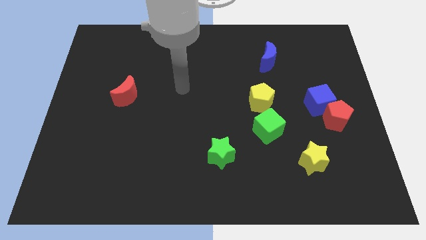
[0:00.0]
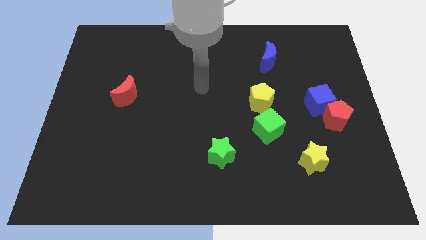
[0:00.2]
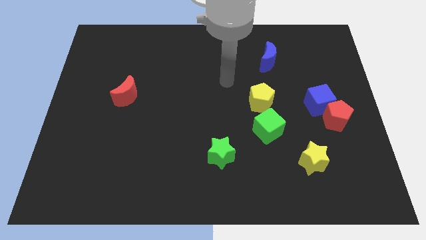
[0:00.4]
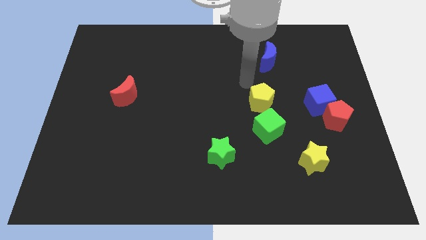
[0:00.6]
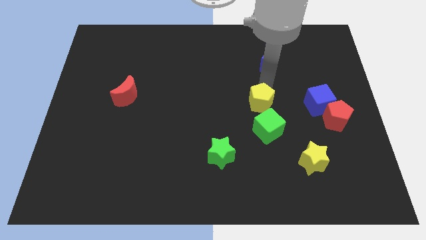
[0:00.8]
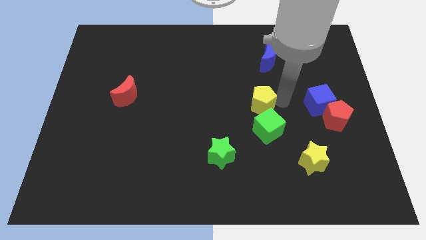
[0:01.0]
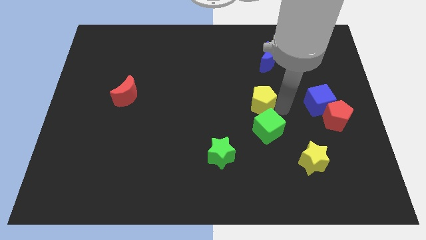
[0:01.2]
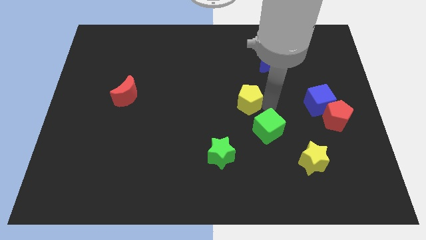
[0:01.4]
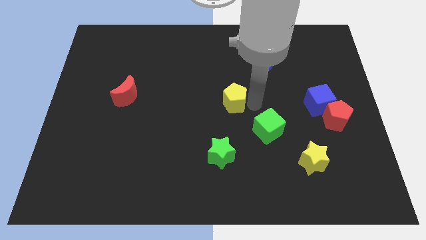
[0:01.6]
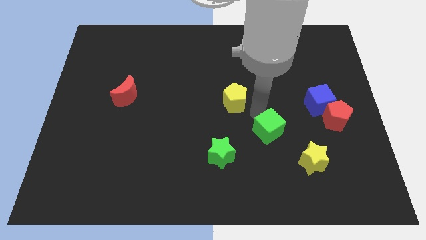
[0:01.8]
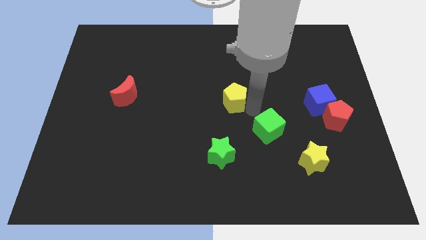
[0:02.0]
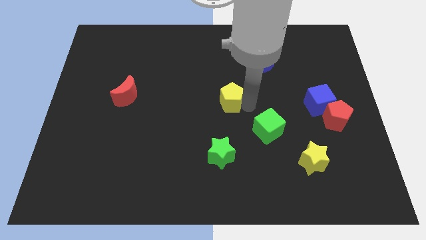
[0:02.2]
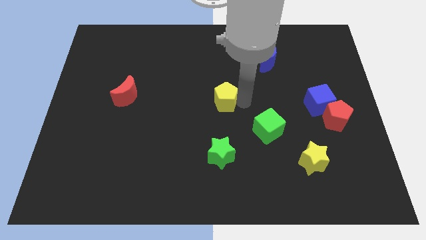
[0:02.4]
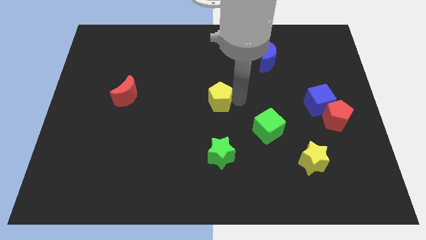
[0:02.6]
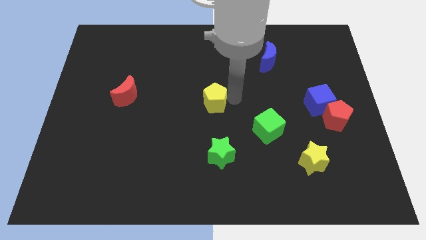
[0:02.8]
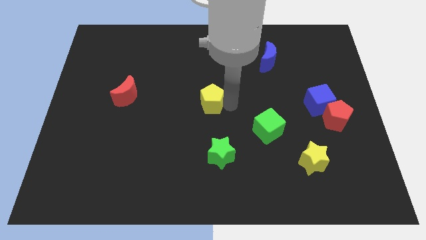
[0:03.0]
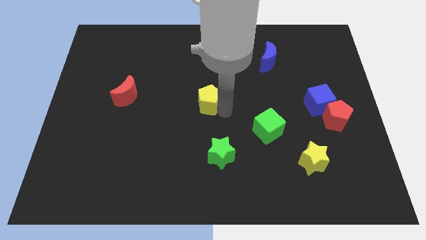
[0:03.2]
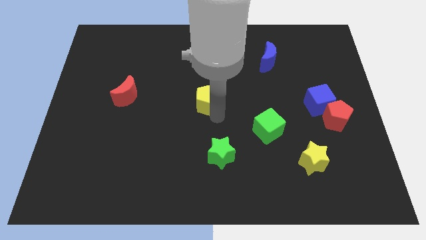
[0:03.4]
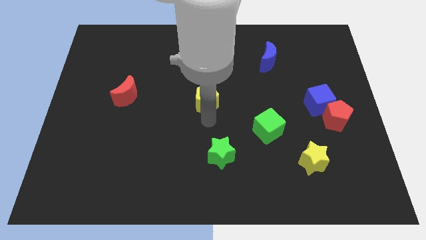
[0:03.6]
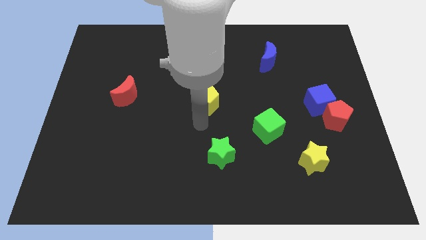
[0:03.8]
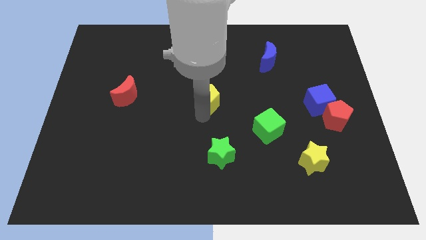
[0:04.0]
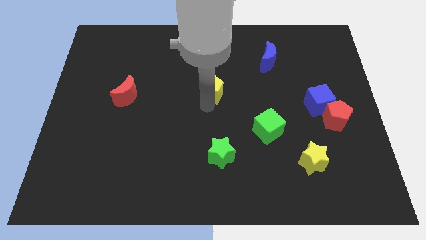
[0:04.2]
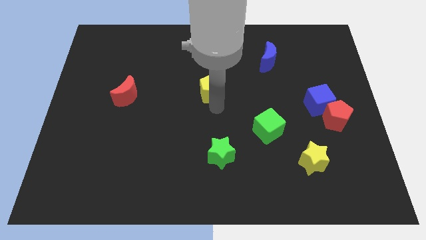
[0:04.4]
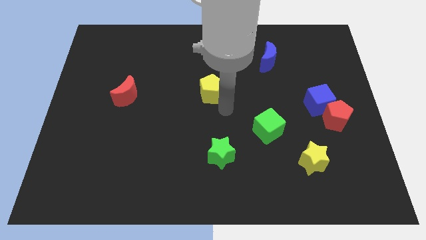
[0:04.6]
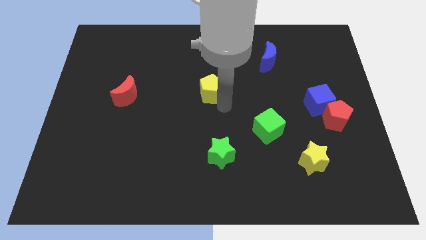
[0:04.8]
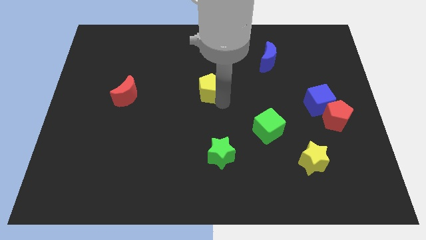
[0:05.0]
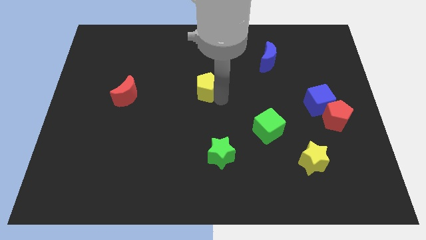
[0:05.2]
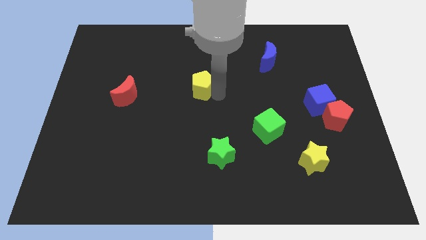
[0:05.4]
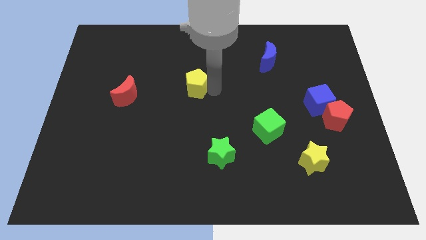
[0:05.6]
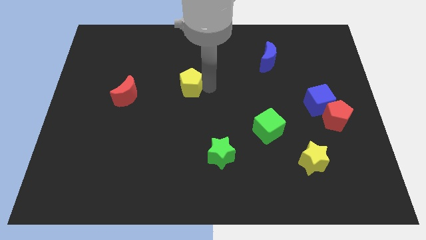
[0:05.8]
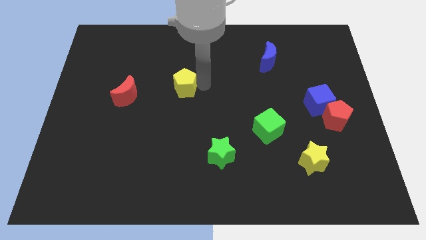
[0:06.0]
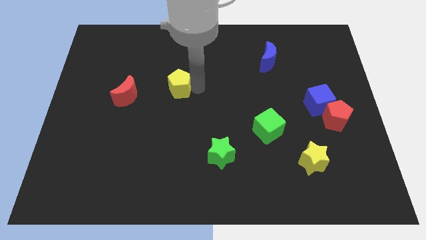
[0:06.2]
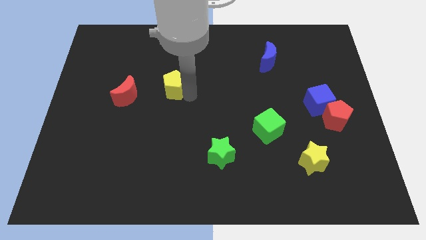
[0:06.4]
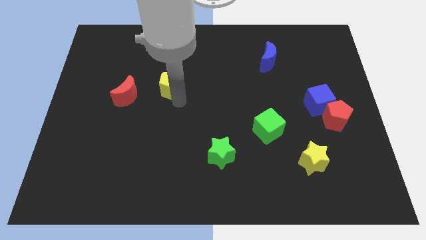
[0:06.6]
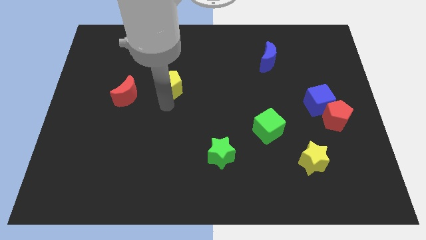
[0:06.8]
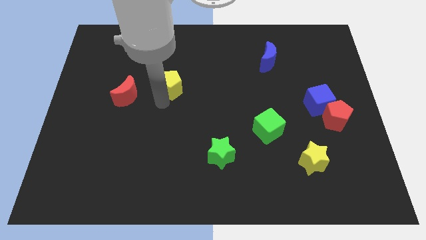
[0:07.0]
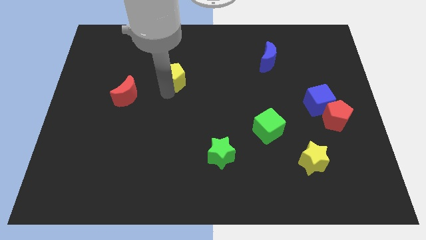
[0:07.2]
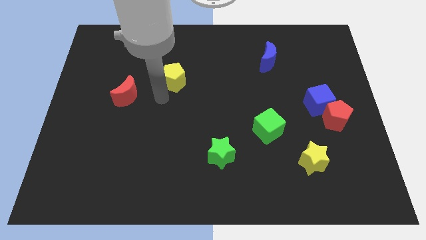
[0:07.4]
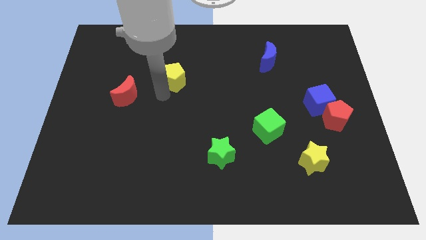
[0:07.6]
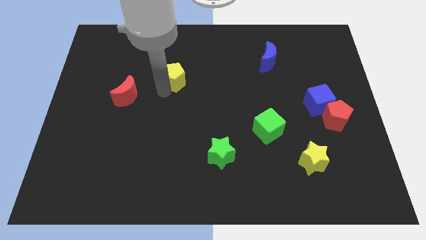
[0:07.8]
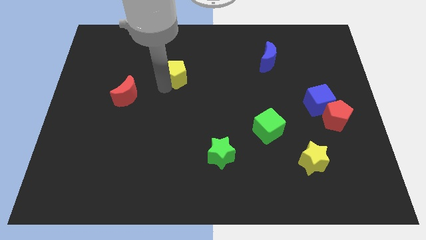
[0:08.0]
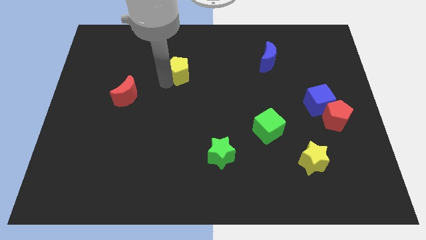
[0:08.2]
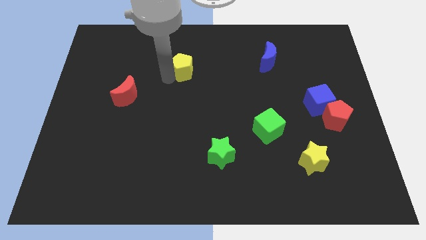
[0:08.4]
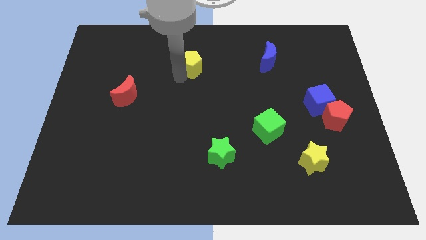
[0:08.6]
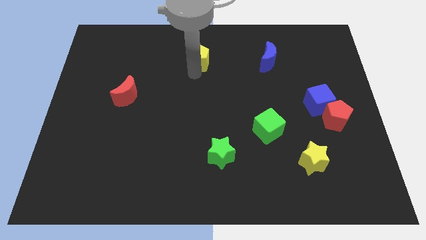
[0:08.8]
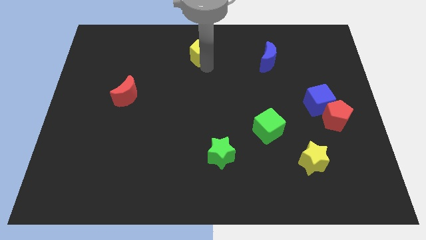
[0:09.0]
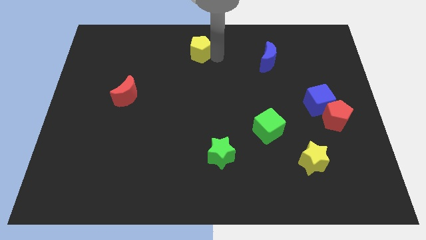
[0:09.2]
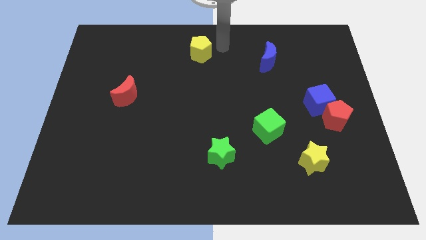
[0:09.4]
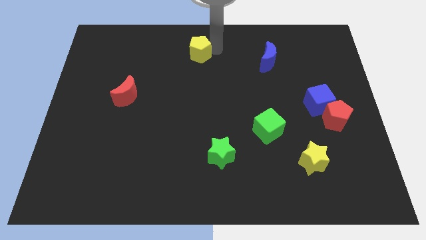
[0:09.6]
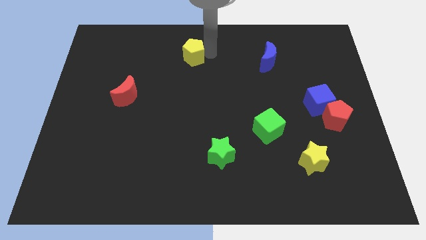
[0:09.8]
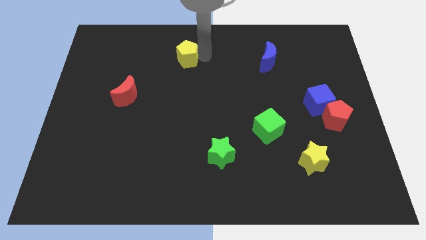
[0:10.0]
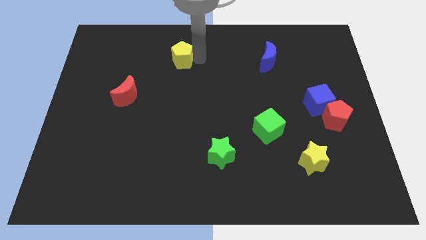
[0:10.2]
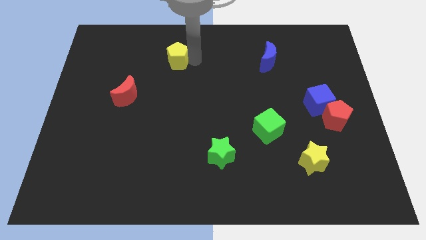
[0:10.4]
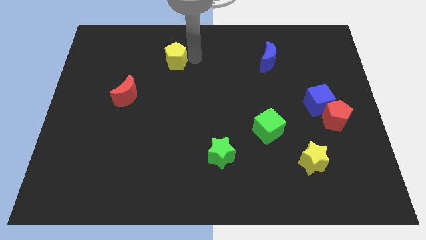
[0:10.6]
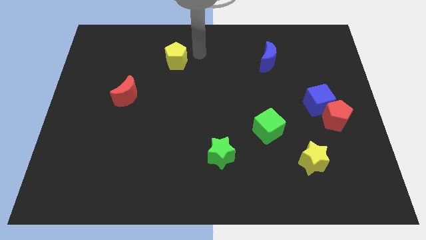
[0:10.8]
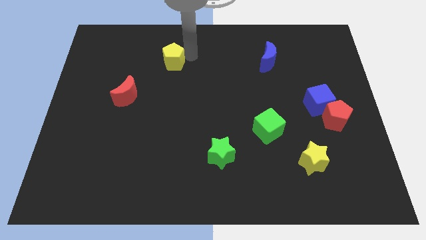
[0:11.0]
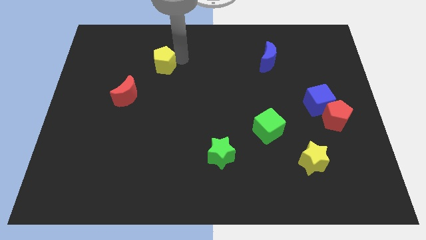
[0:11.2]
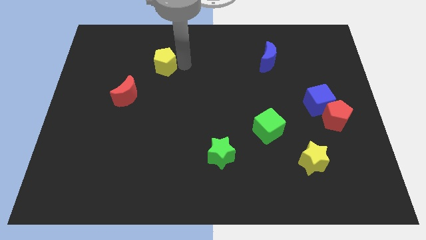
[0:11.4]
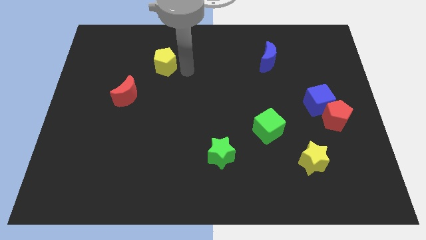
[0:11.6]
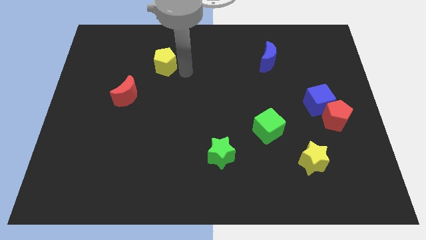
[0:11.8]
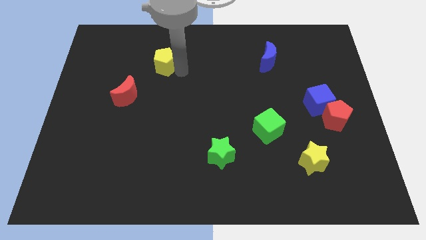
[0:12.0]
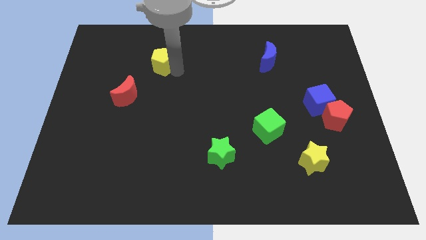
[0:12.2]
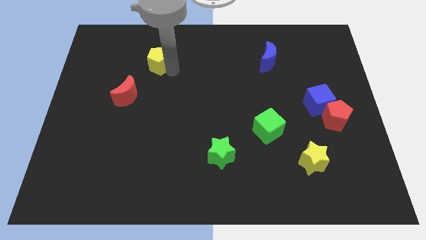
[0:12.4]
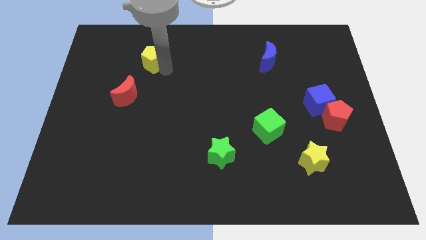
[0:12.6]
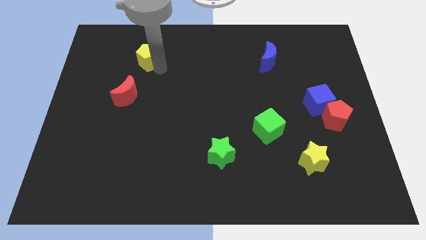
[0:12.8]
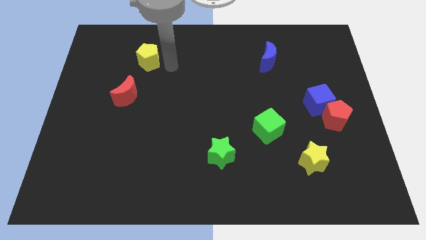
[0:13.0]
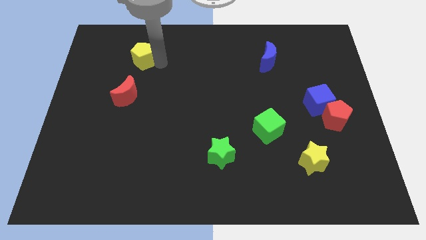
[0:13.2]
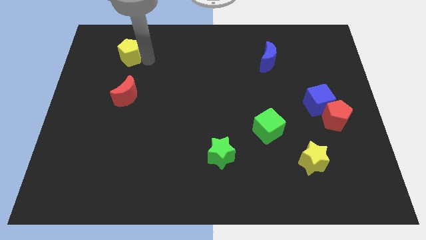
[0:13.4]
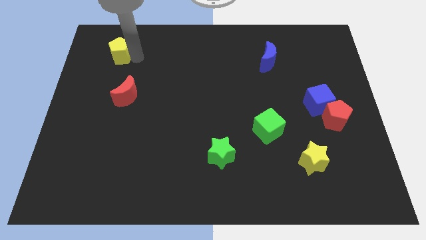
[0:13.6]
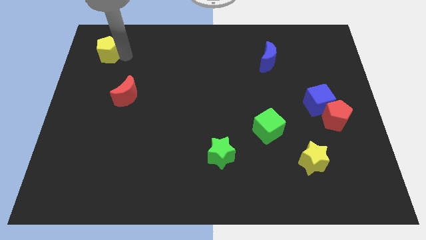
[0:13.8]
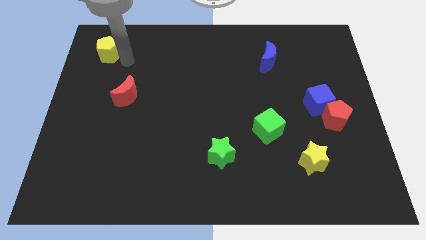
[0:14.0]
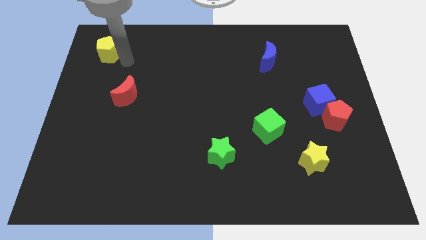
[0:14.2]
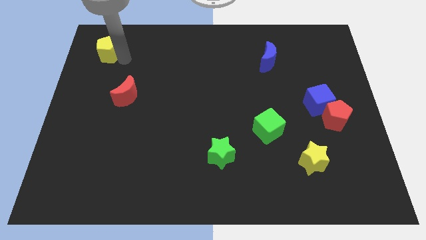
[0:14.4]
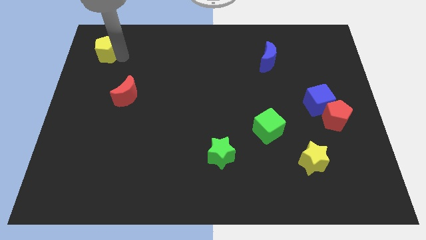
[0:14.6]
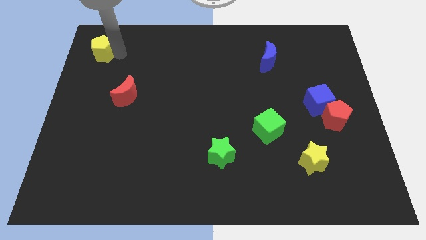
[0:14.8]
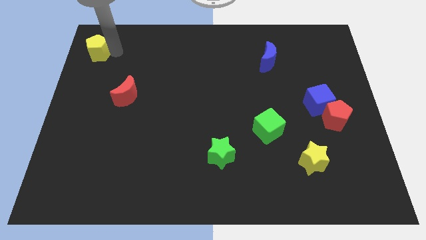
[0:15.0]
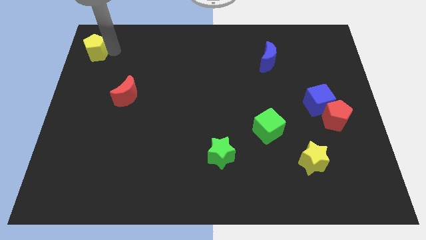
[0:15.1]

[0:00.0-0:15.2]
move the yellow pentagon to the top left of the board
